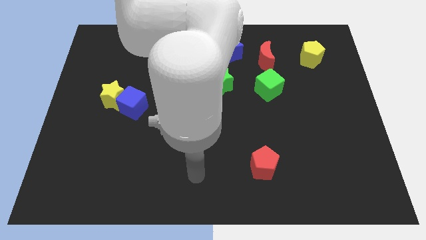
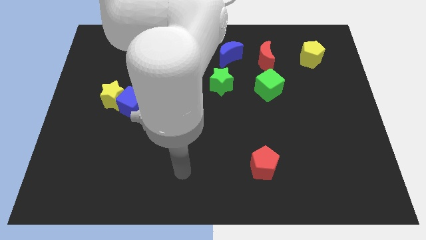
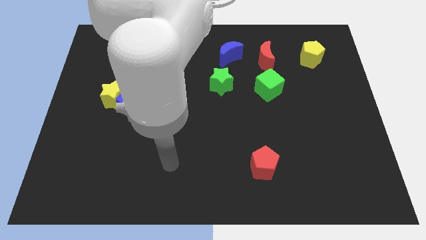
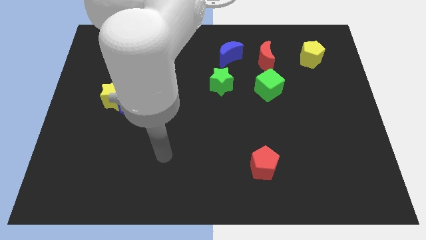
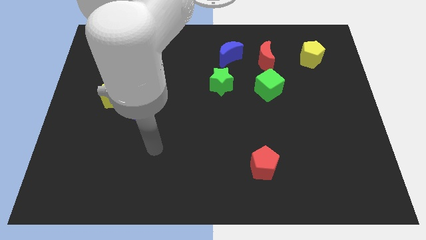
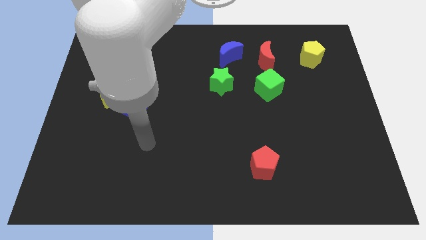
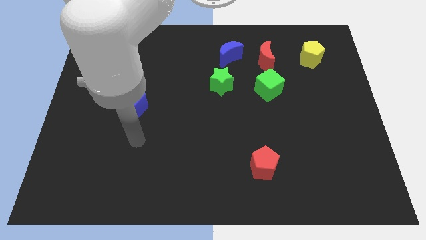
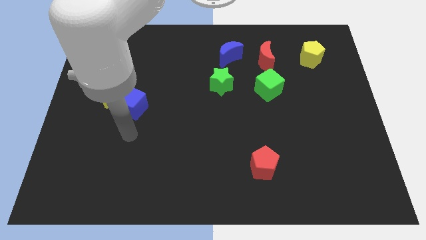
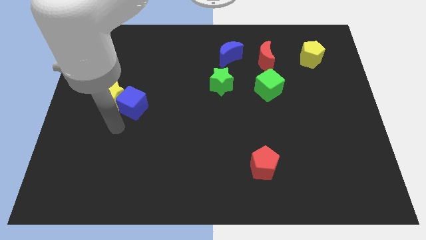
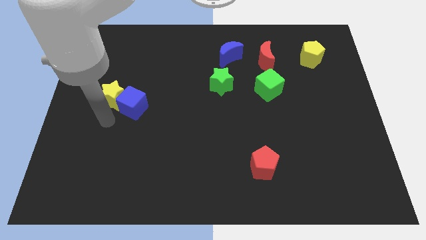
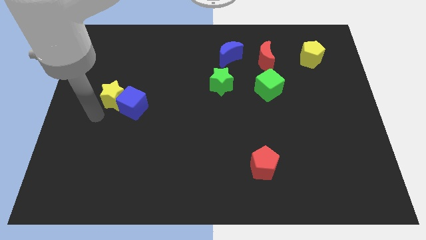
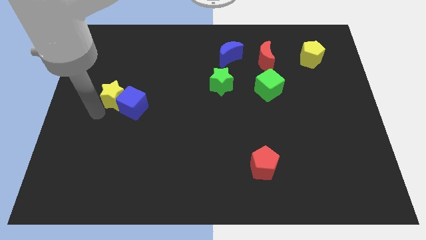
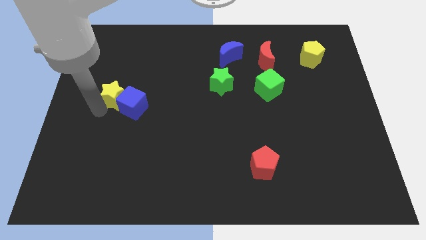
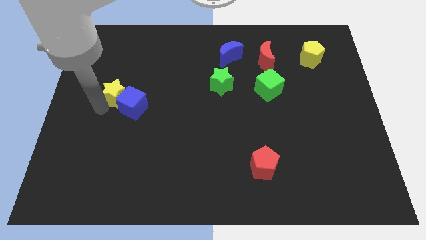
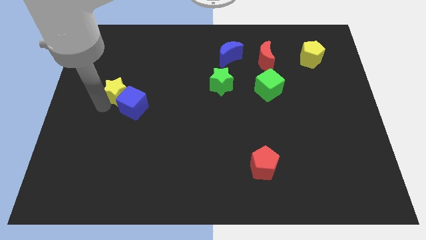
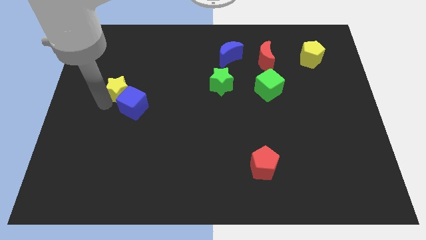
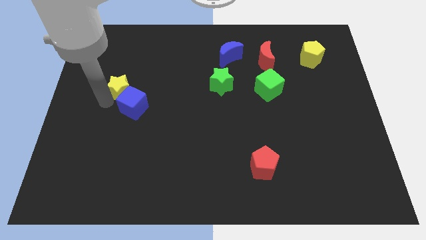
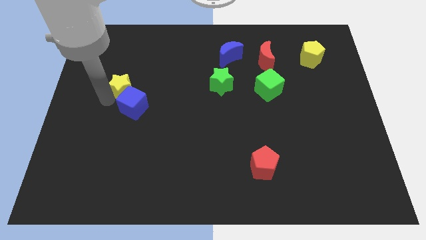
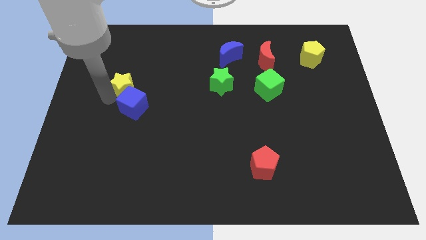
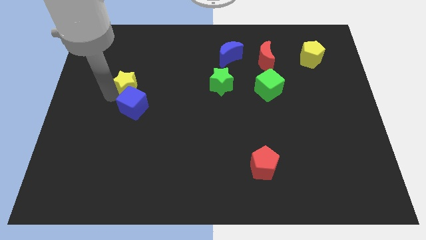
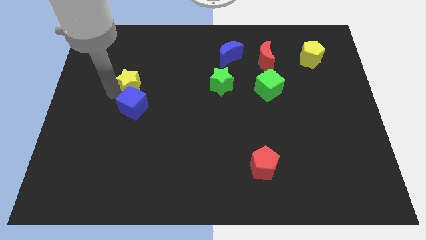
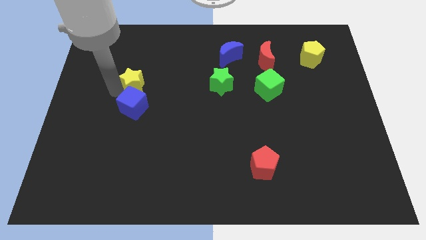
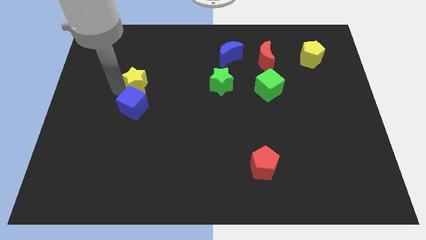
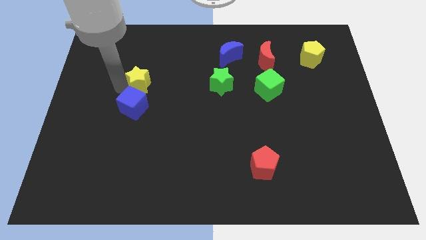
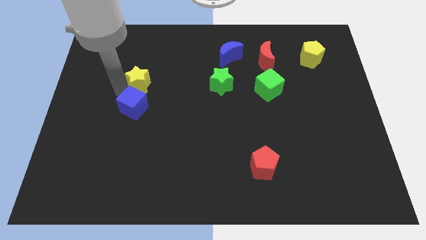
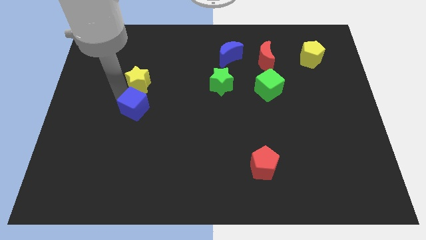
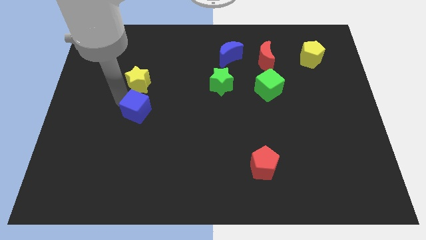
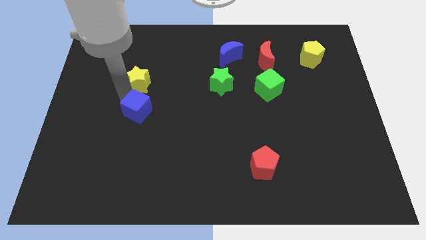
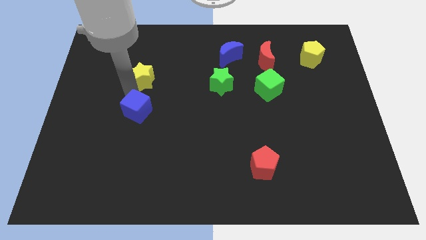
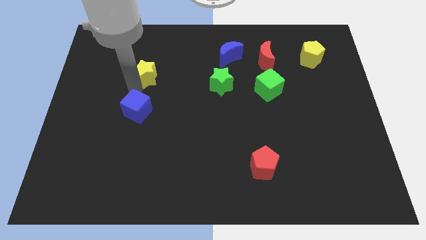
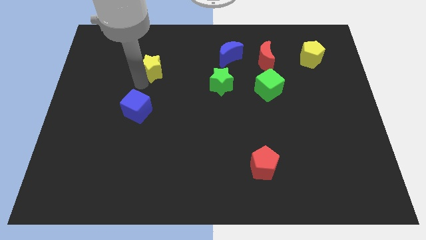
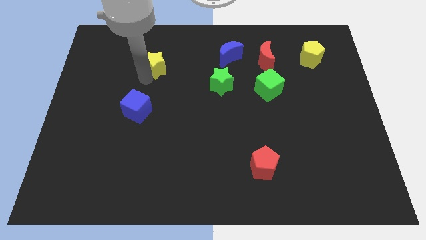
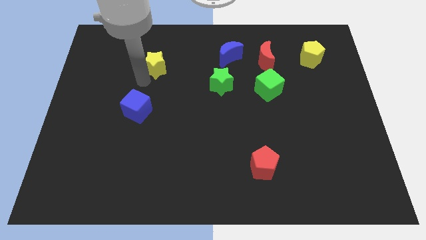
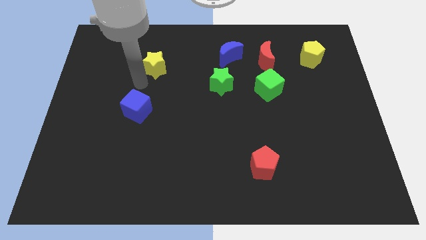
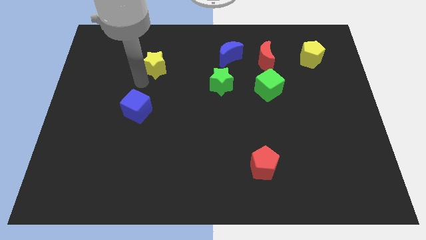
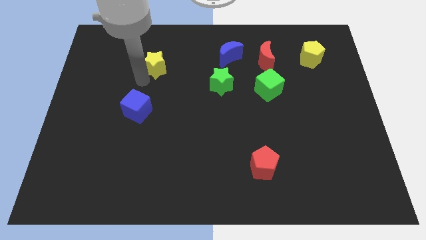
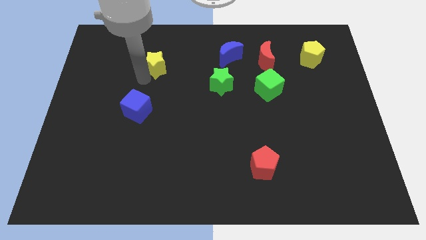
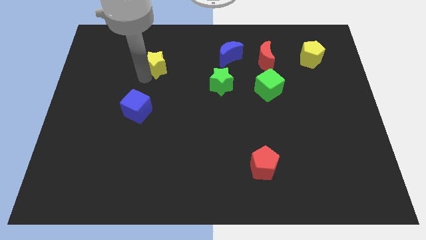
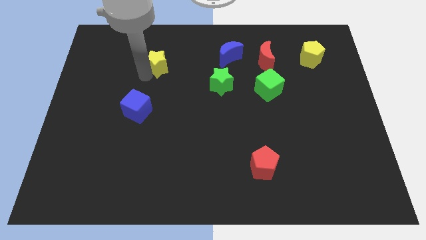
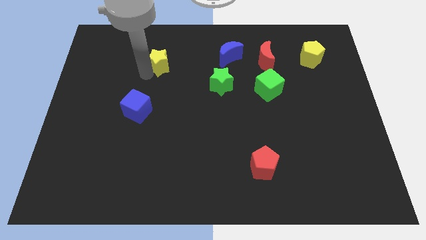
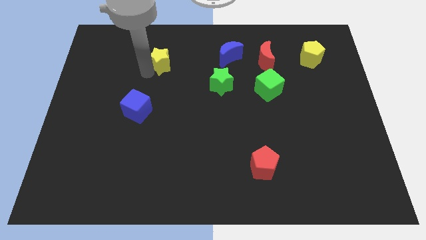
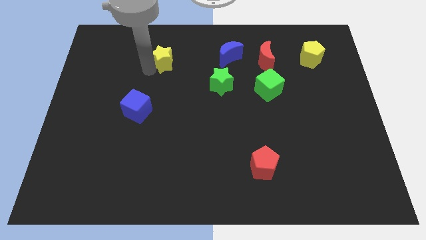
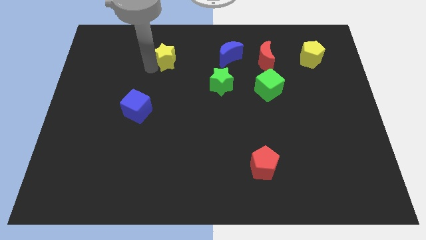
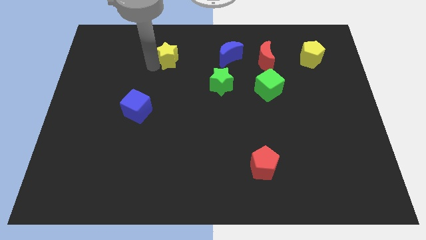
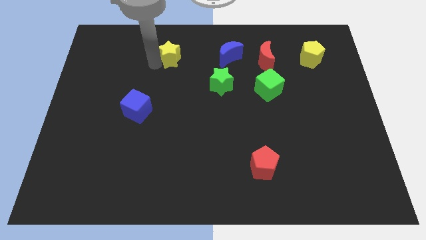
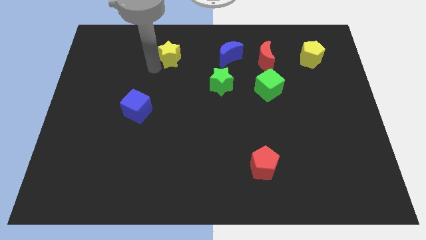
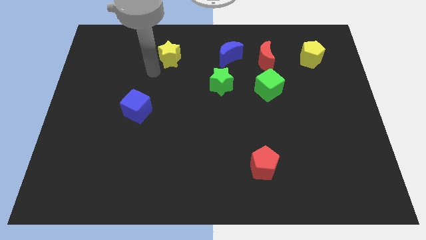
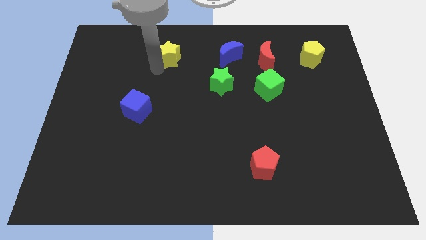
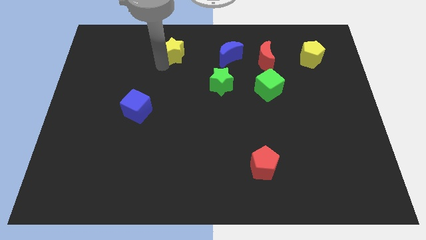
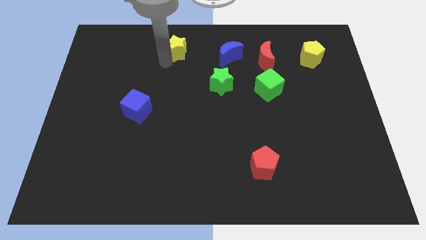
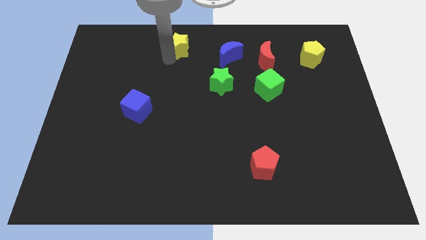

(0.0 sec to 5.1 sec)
put the yellow star to the towards your base

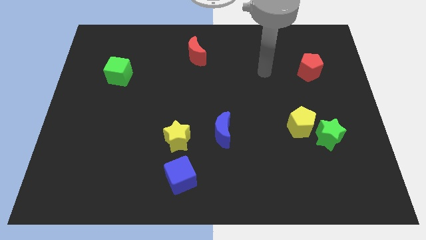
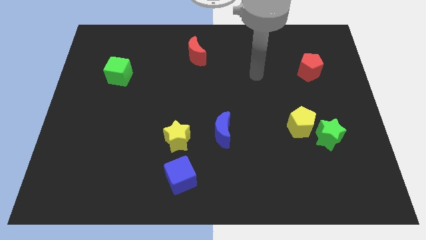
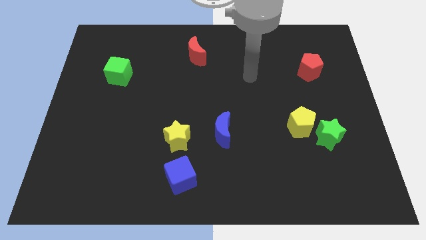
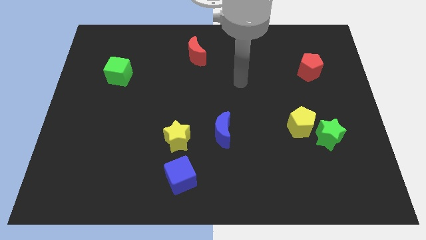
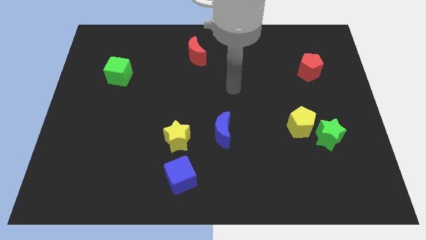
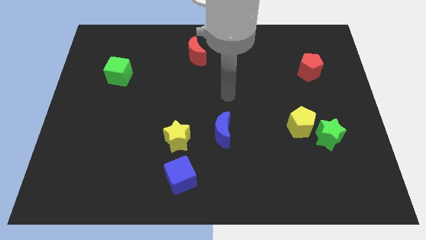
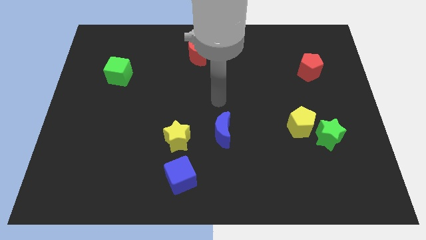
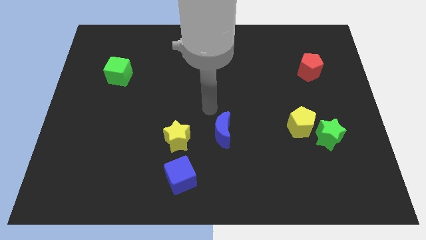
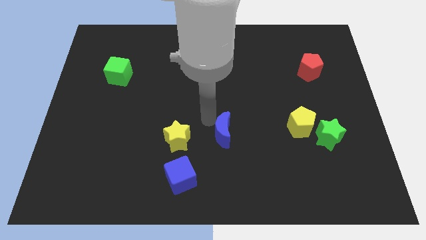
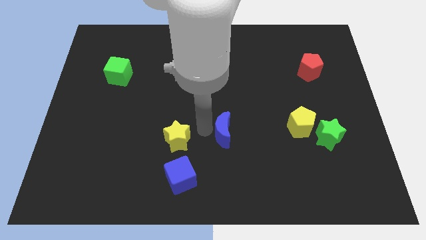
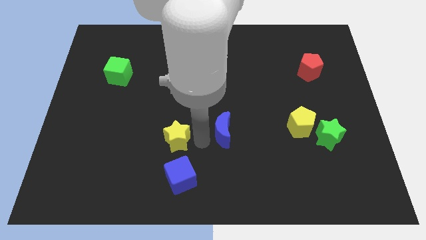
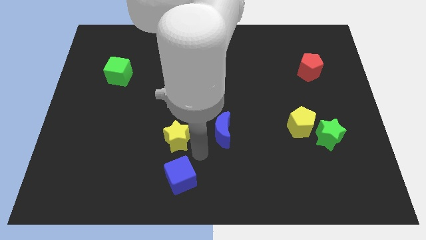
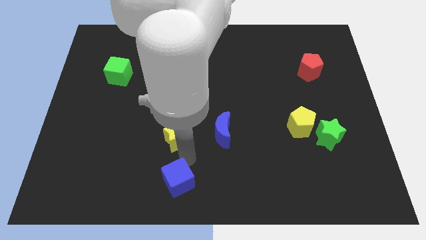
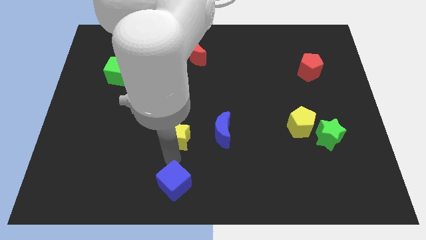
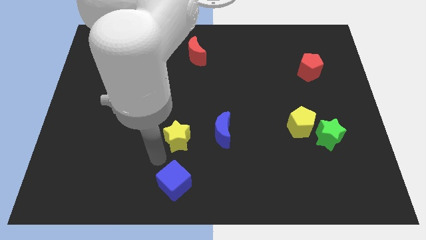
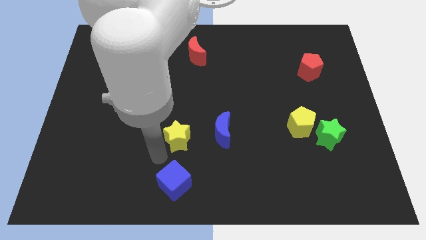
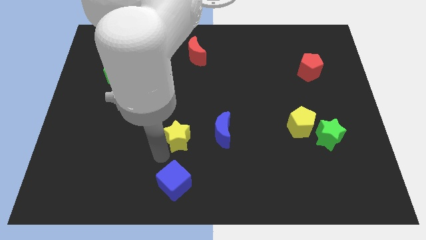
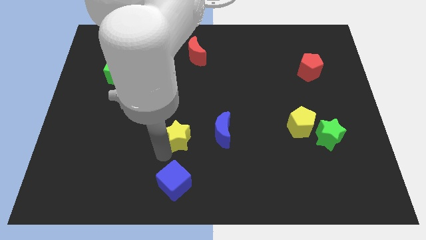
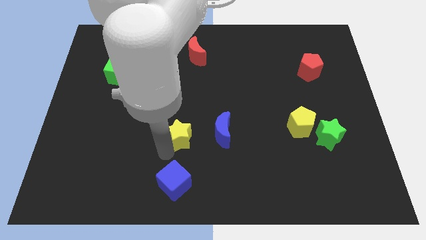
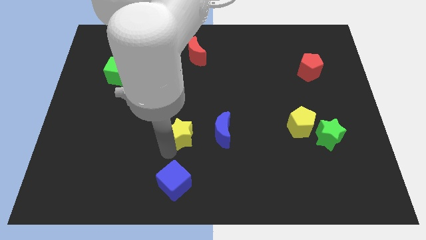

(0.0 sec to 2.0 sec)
put the yellow star to the center of the board
